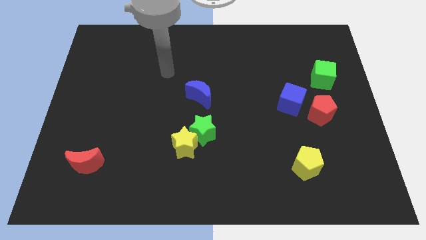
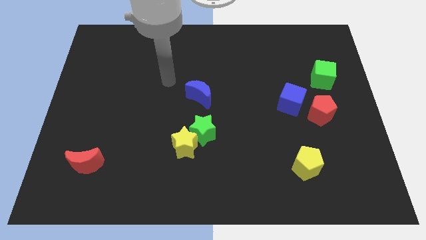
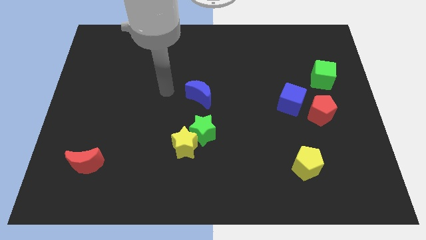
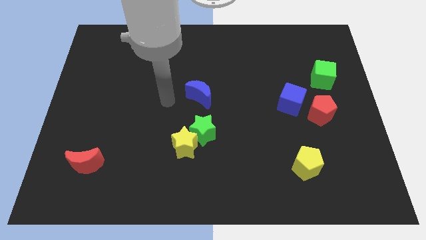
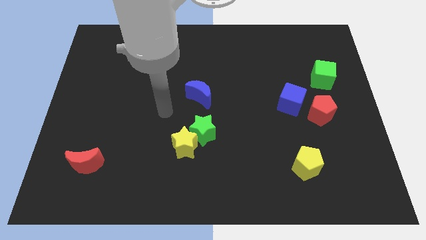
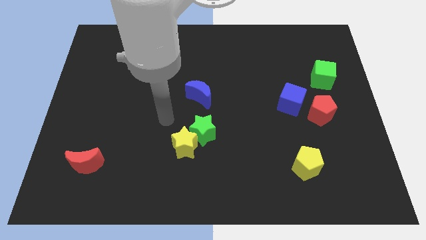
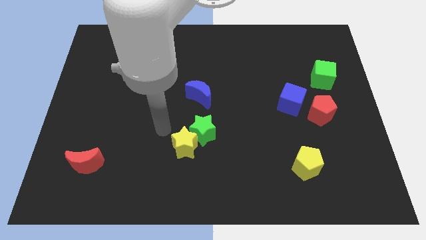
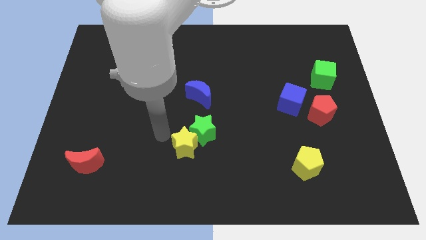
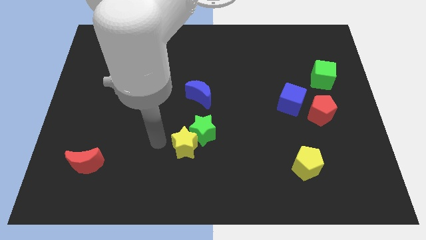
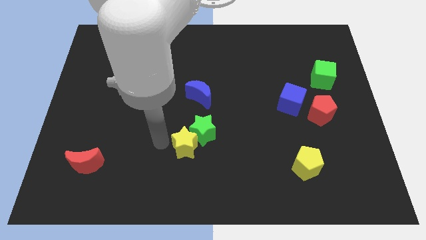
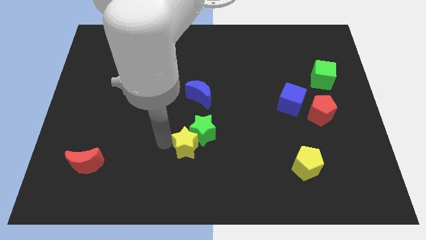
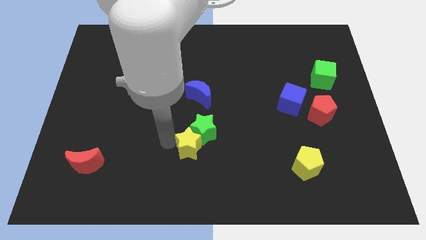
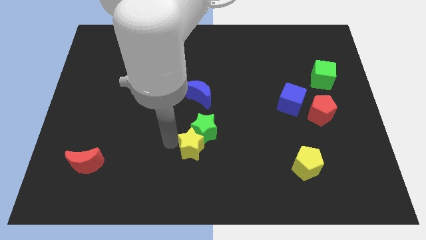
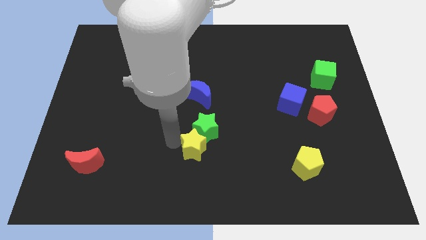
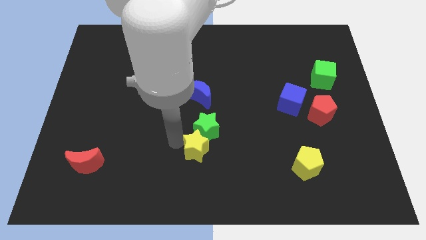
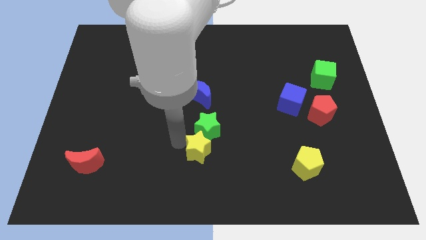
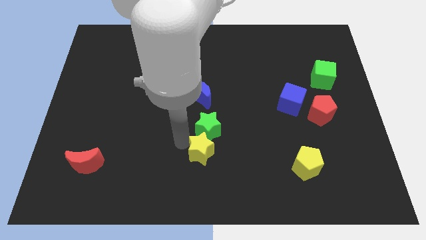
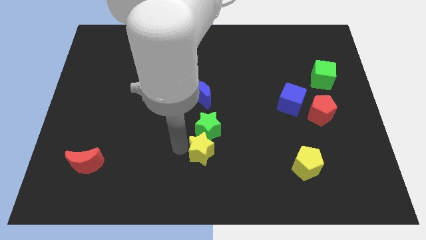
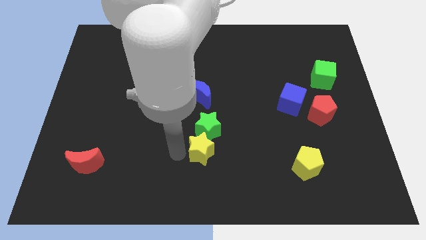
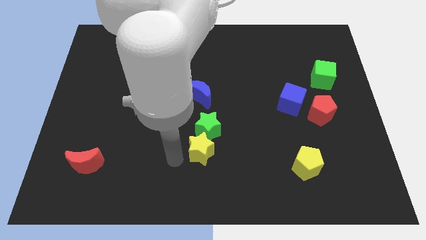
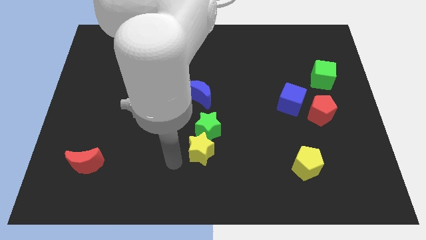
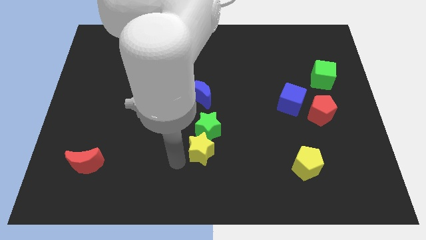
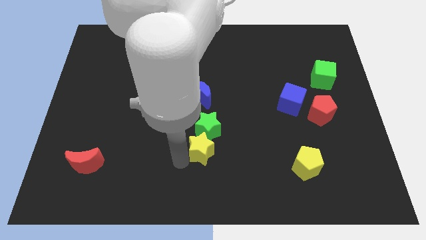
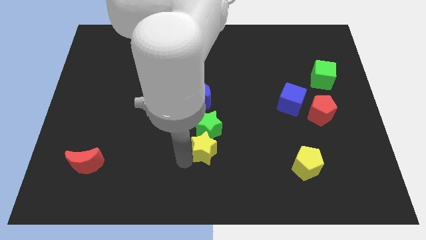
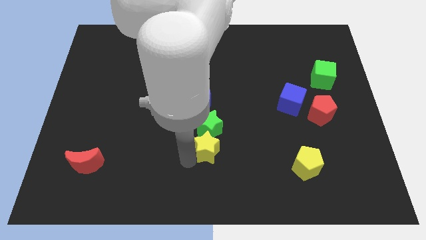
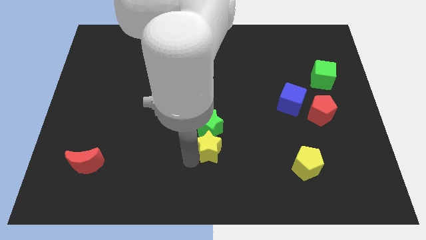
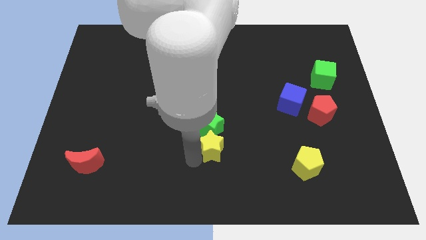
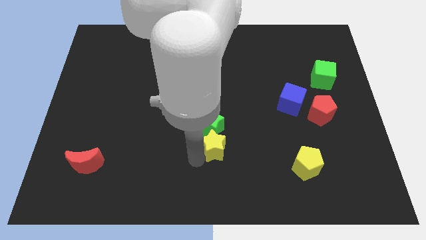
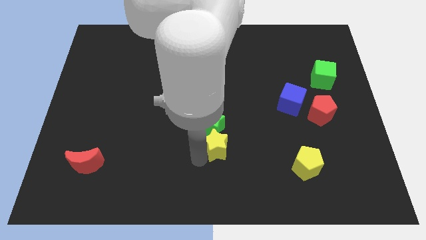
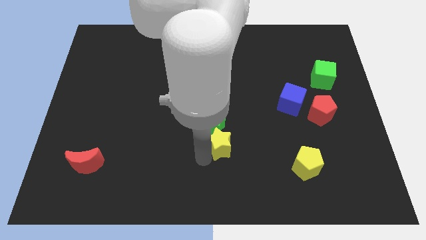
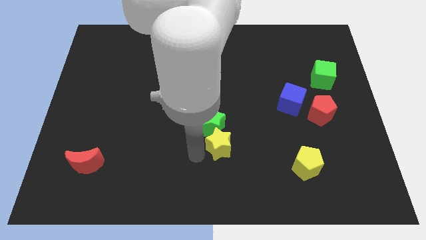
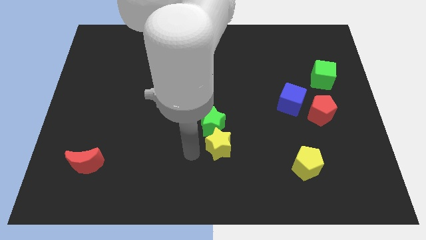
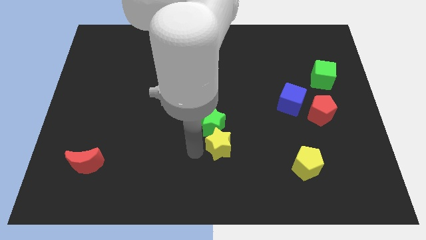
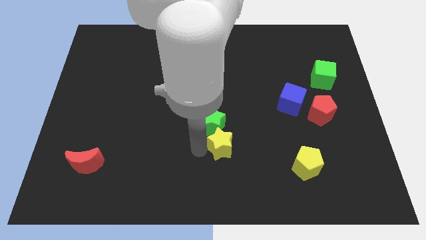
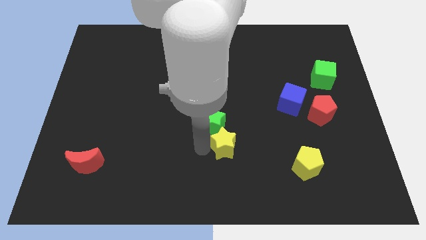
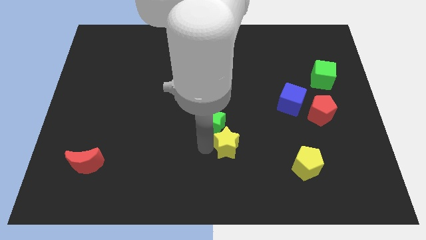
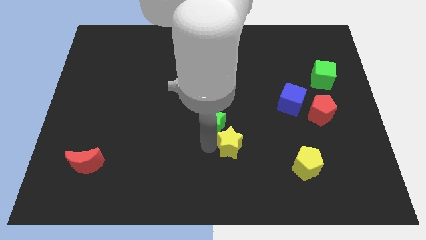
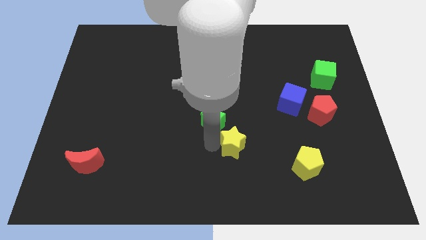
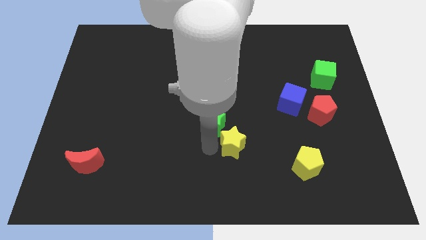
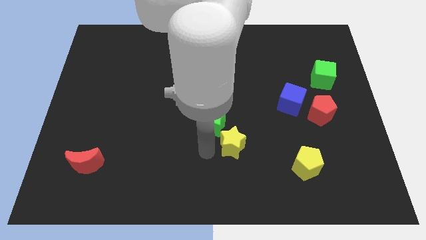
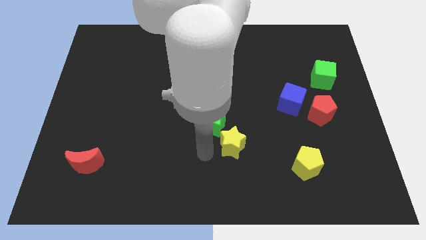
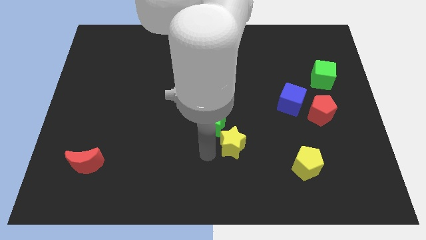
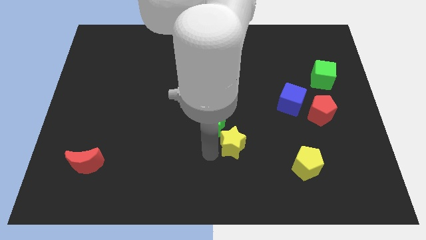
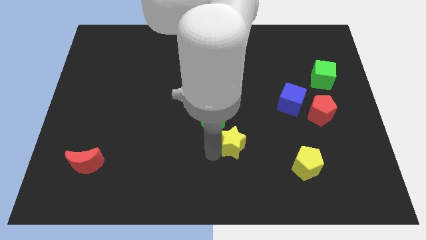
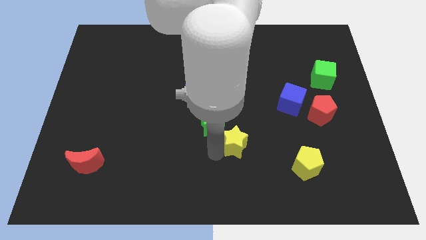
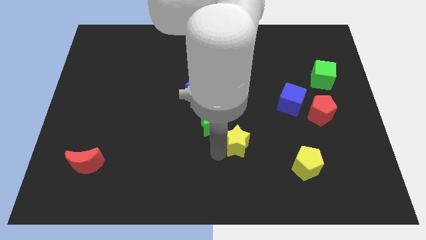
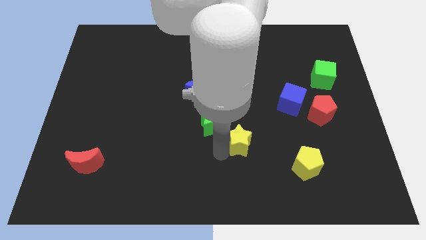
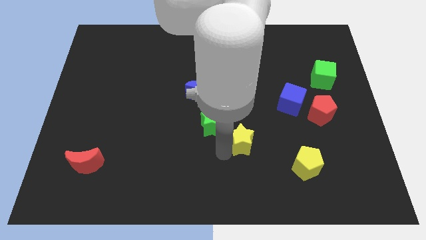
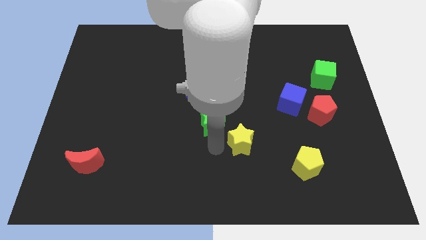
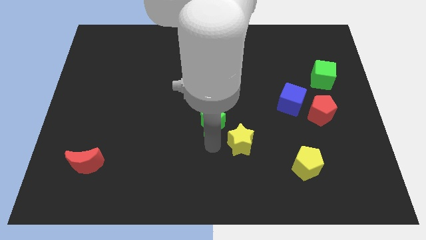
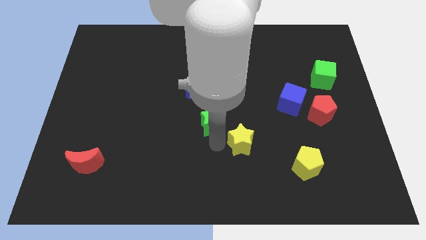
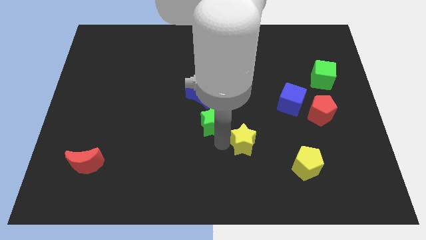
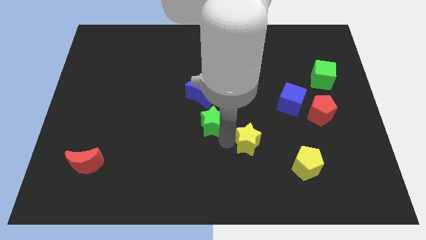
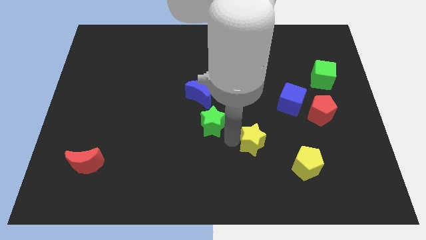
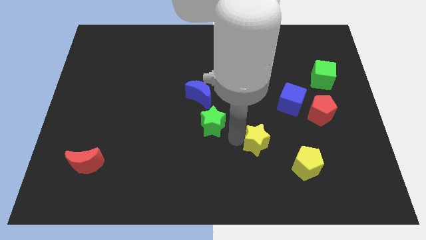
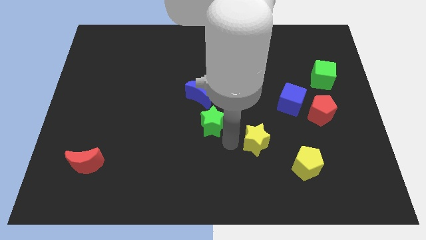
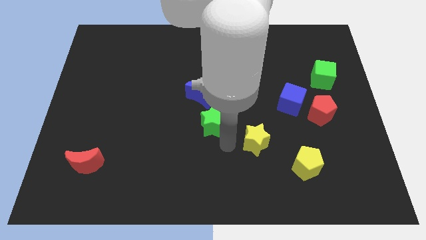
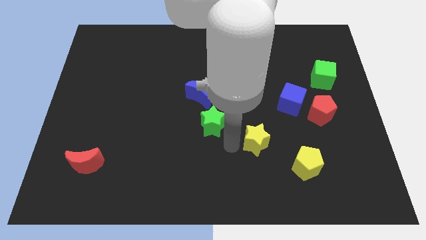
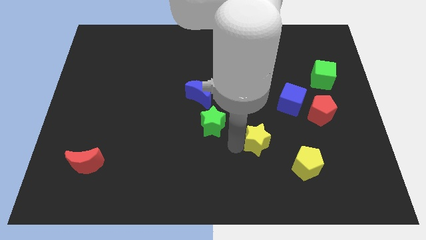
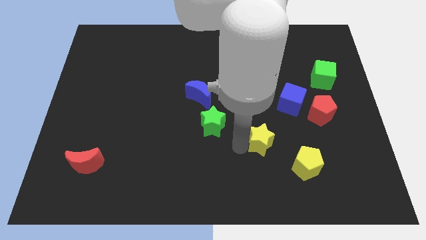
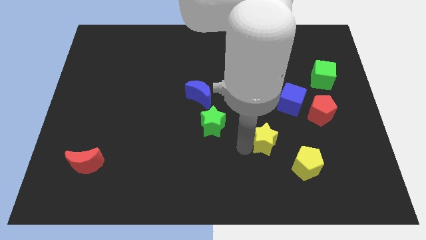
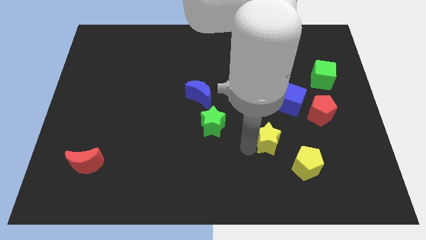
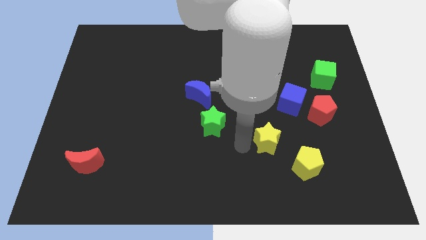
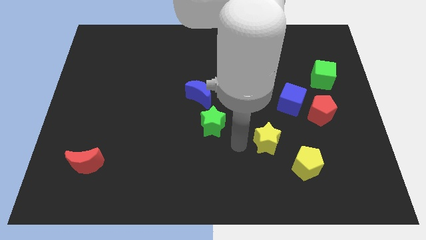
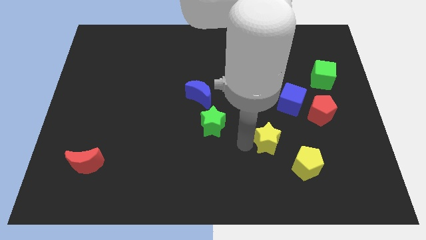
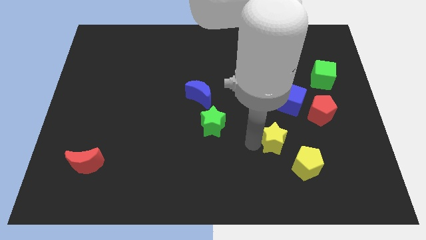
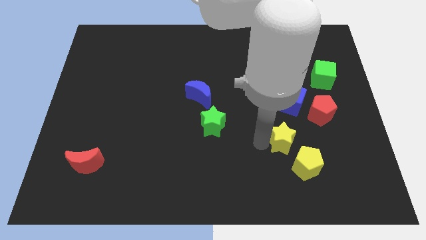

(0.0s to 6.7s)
slide the yellow star to the bottom of the blue cube
